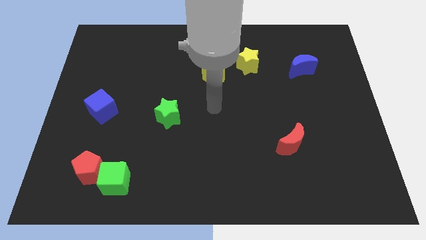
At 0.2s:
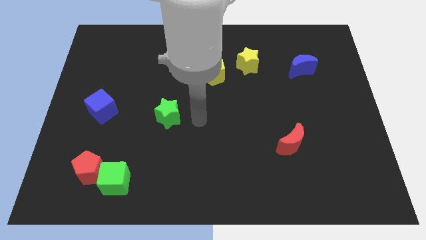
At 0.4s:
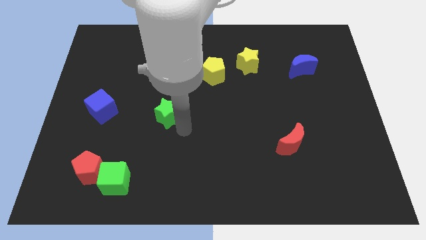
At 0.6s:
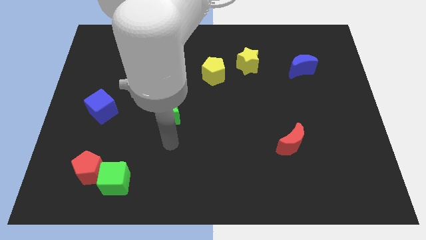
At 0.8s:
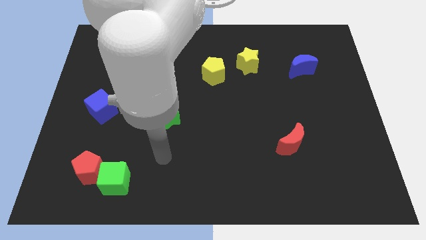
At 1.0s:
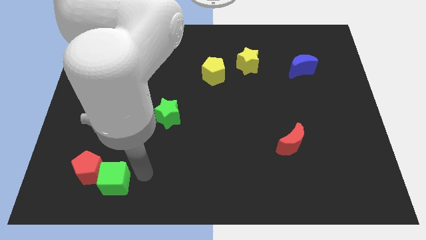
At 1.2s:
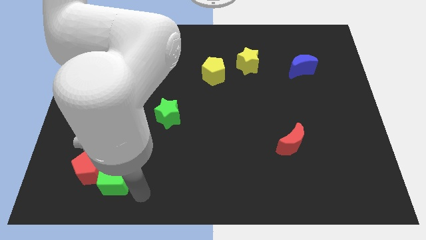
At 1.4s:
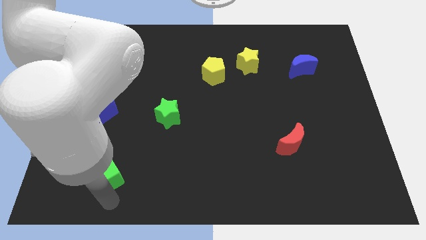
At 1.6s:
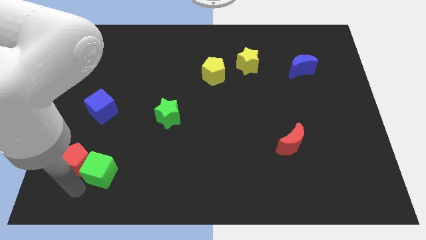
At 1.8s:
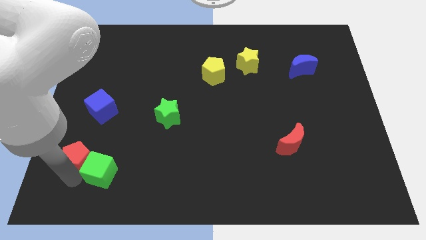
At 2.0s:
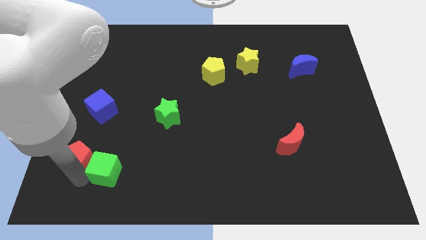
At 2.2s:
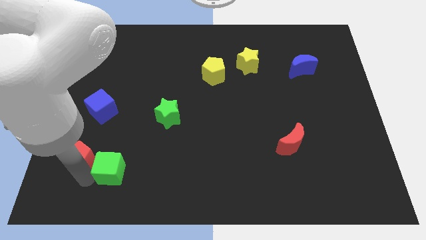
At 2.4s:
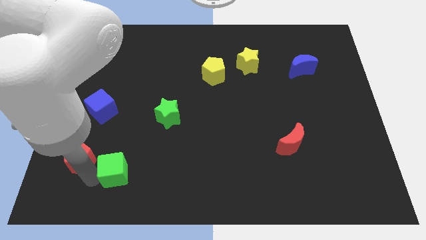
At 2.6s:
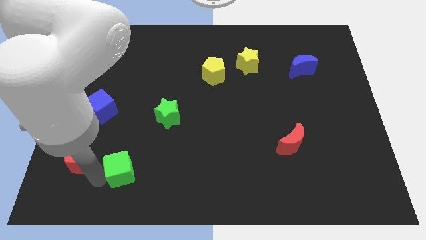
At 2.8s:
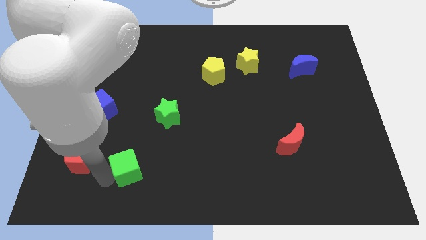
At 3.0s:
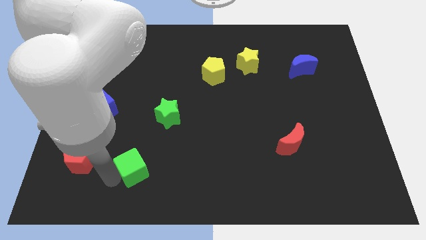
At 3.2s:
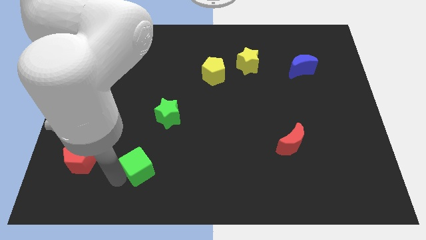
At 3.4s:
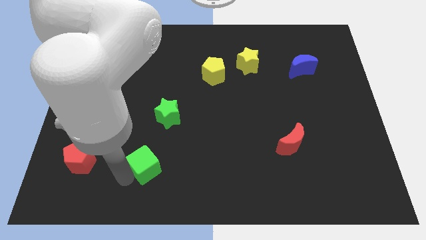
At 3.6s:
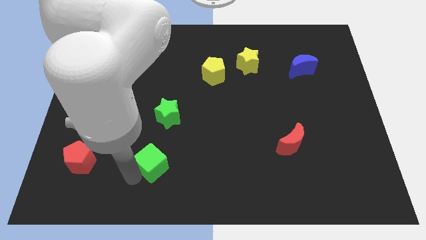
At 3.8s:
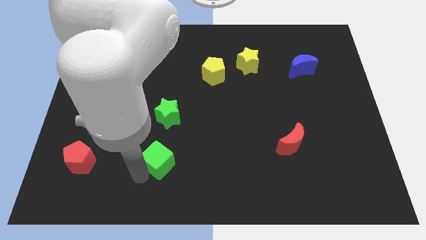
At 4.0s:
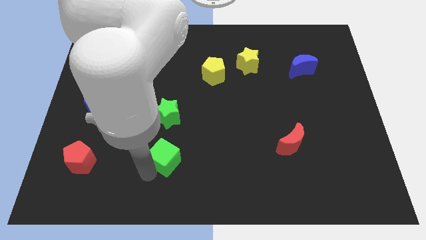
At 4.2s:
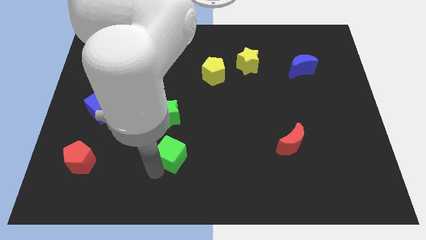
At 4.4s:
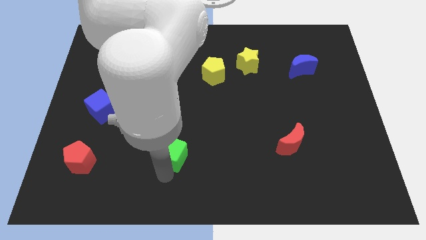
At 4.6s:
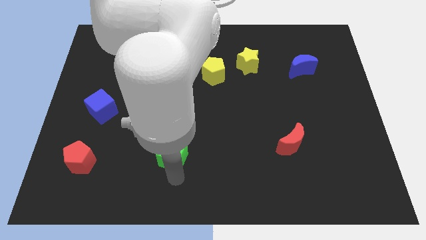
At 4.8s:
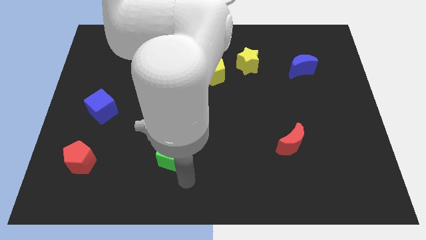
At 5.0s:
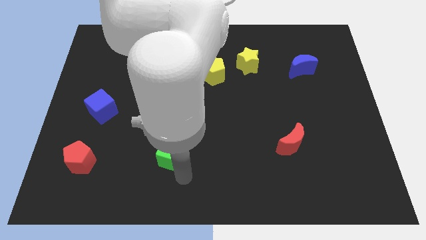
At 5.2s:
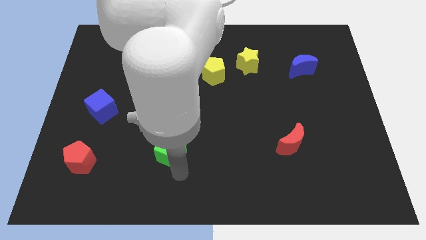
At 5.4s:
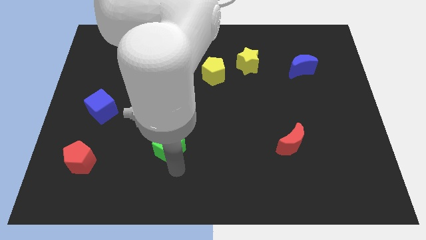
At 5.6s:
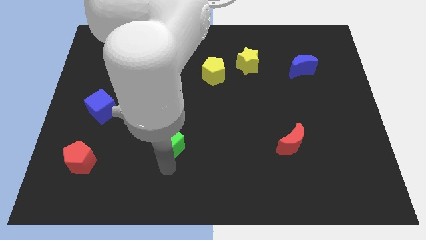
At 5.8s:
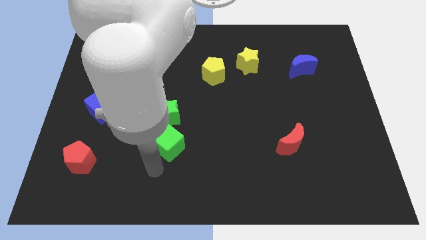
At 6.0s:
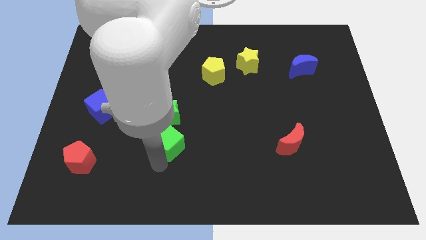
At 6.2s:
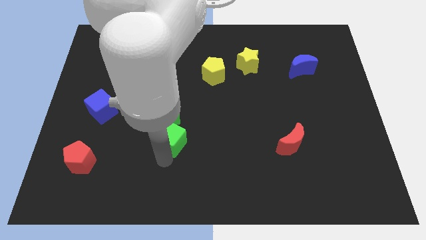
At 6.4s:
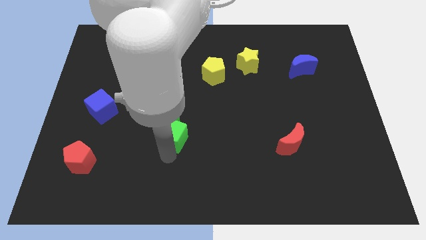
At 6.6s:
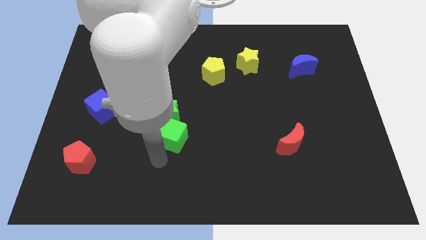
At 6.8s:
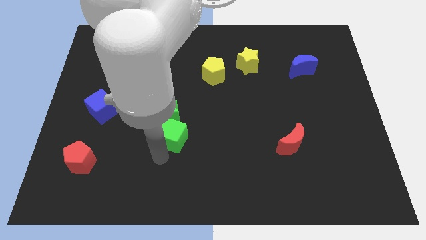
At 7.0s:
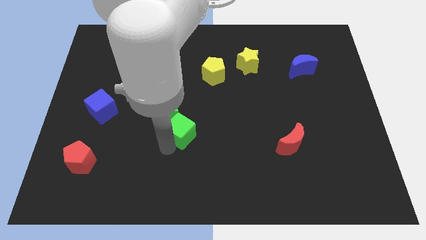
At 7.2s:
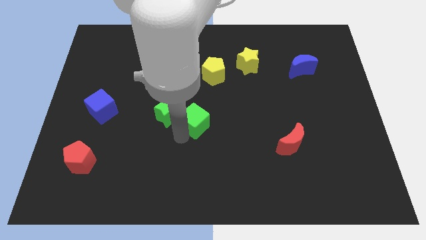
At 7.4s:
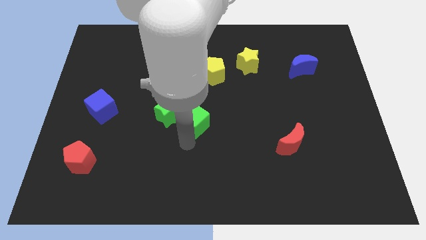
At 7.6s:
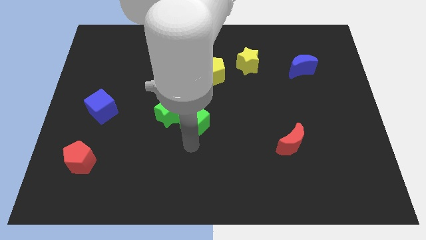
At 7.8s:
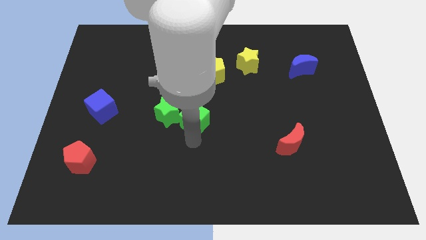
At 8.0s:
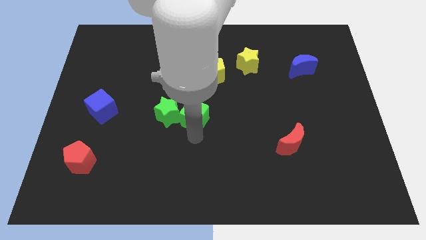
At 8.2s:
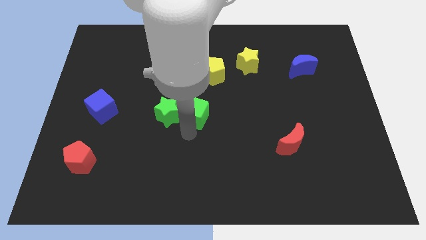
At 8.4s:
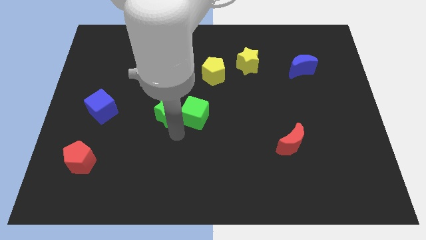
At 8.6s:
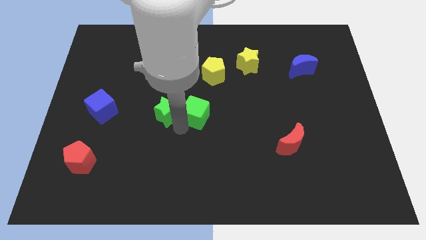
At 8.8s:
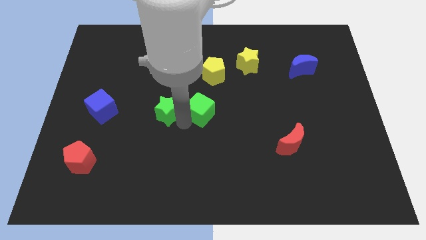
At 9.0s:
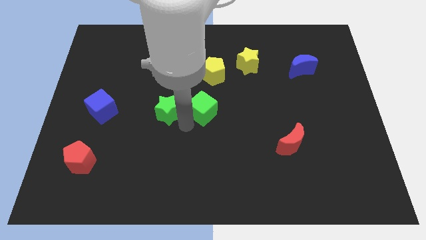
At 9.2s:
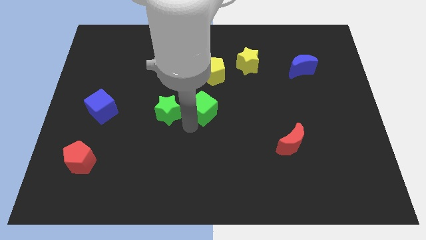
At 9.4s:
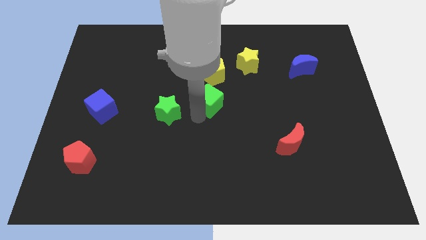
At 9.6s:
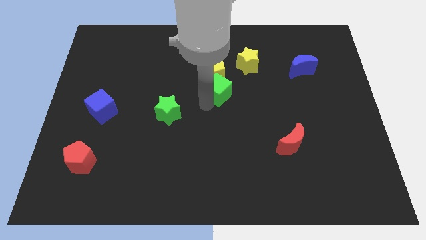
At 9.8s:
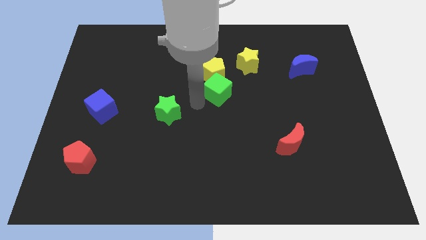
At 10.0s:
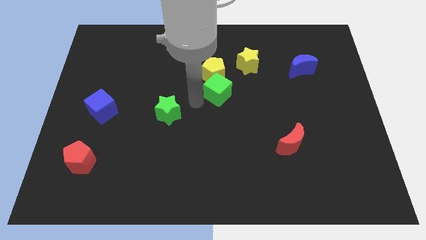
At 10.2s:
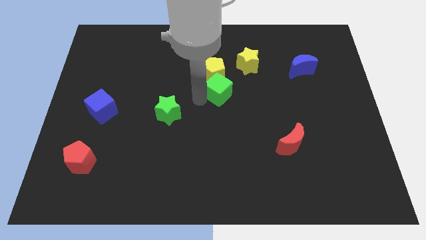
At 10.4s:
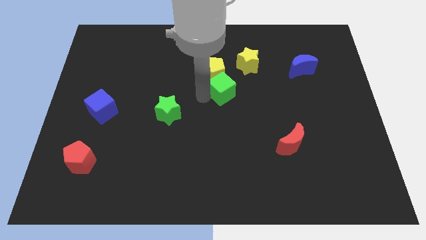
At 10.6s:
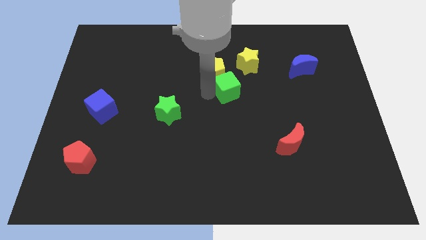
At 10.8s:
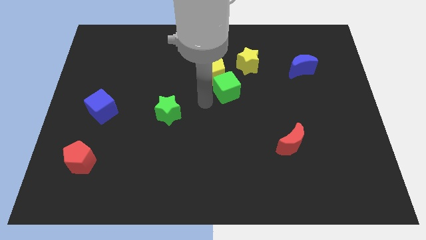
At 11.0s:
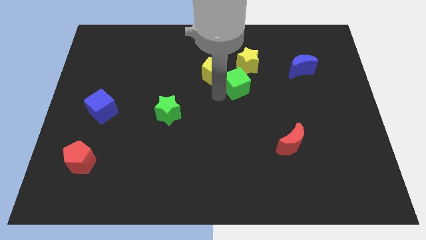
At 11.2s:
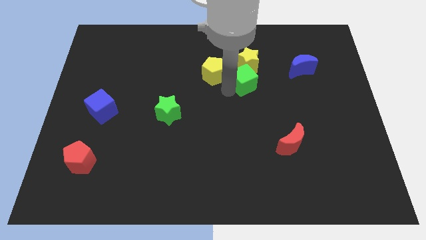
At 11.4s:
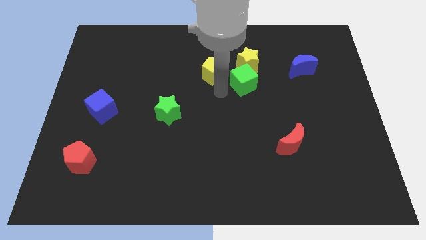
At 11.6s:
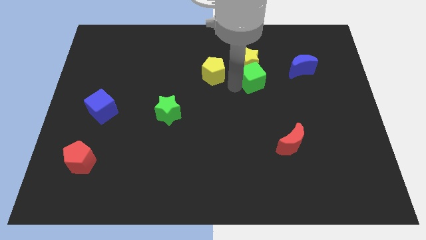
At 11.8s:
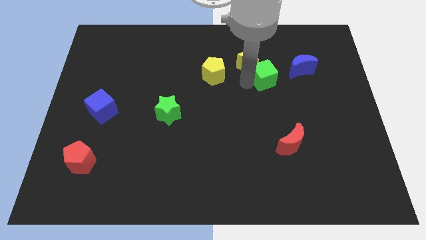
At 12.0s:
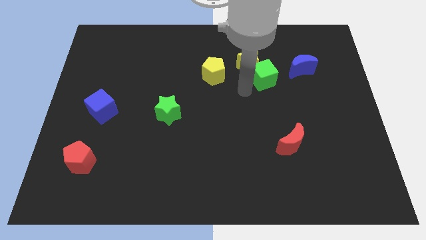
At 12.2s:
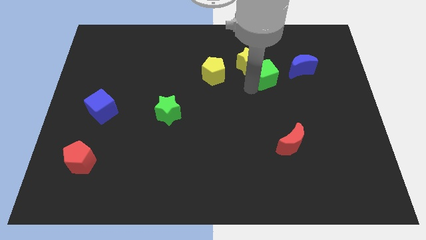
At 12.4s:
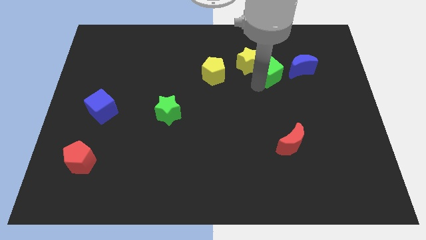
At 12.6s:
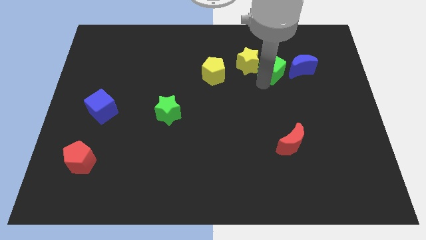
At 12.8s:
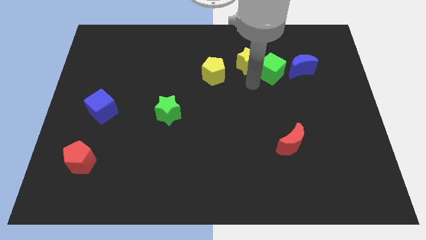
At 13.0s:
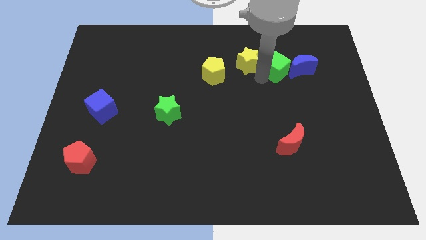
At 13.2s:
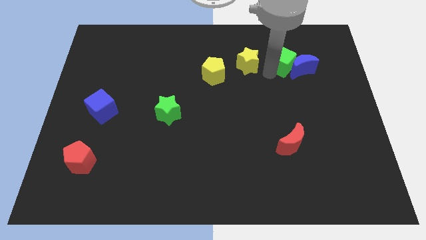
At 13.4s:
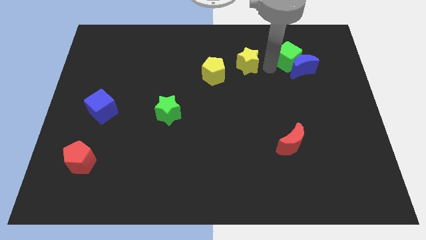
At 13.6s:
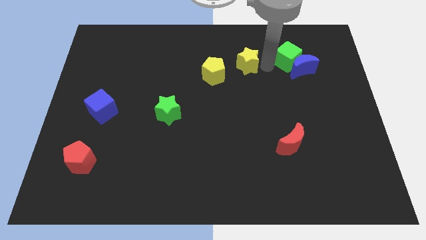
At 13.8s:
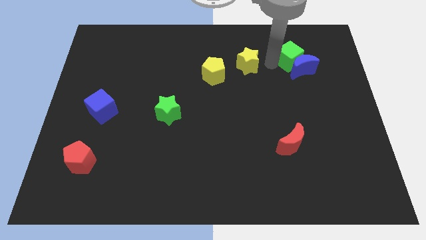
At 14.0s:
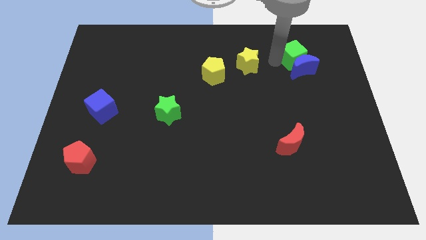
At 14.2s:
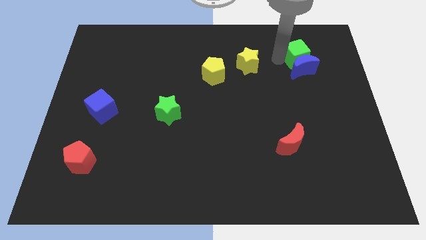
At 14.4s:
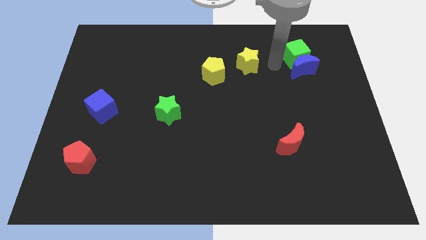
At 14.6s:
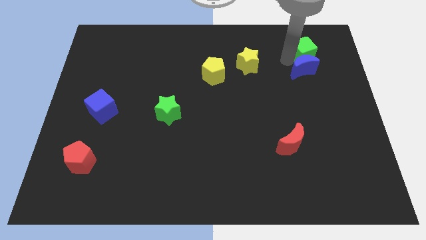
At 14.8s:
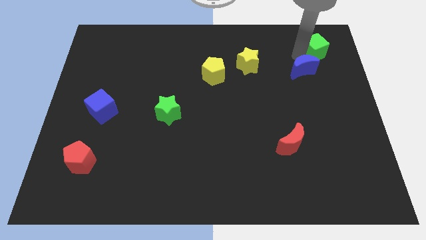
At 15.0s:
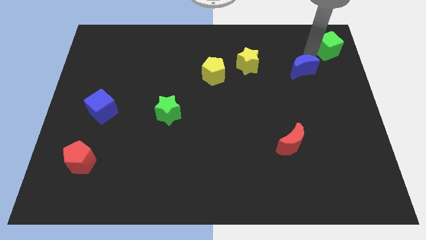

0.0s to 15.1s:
push the green cube to the upper right corner
